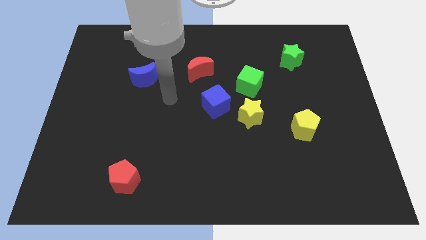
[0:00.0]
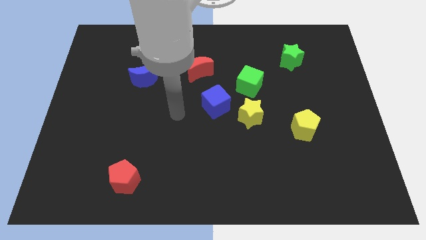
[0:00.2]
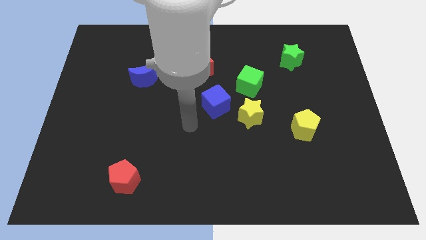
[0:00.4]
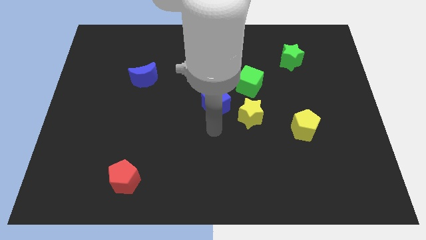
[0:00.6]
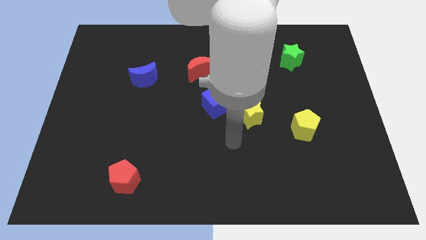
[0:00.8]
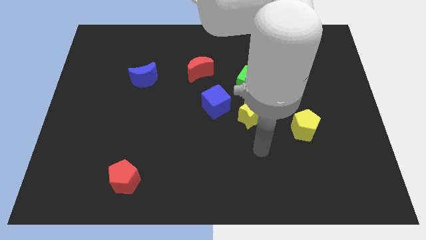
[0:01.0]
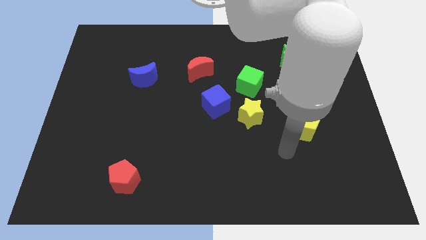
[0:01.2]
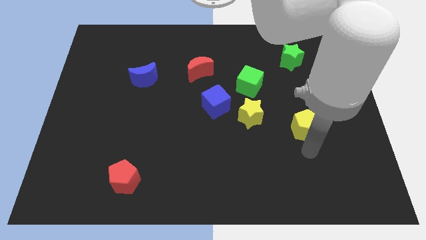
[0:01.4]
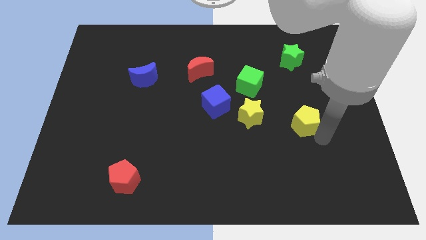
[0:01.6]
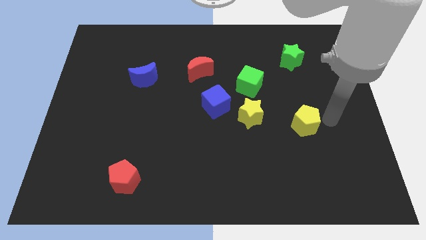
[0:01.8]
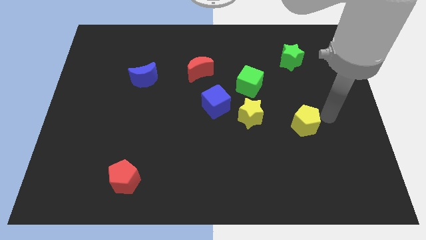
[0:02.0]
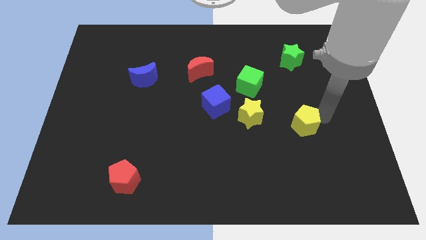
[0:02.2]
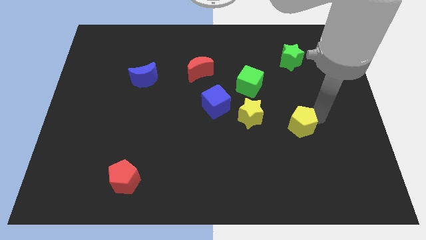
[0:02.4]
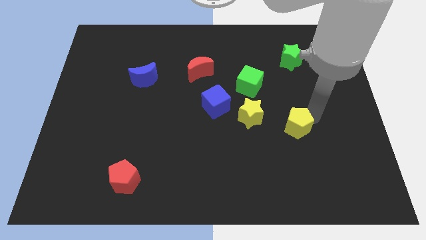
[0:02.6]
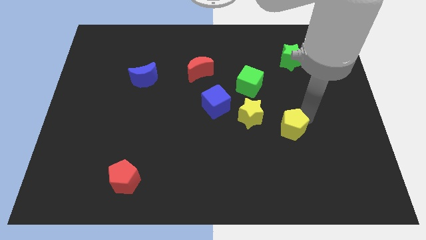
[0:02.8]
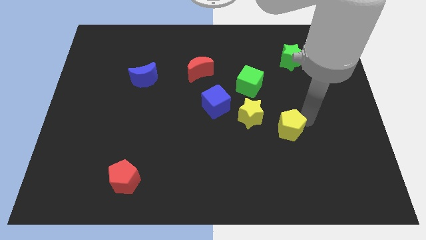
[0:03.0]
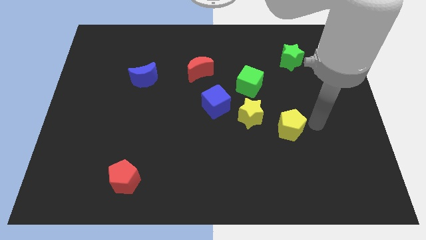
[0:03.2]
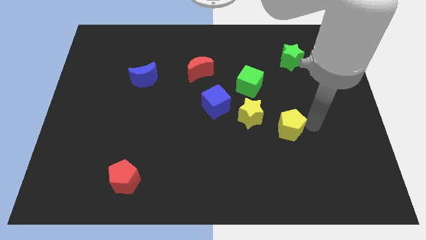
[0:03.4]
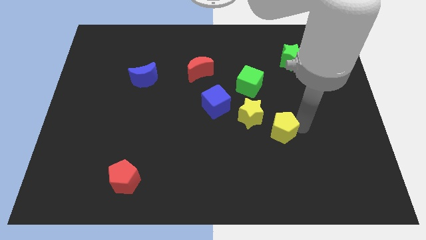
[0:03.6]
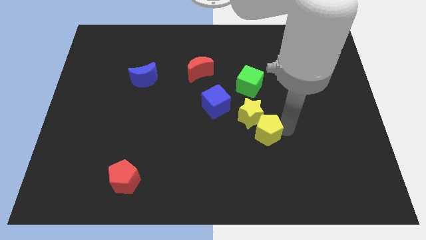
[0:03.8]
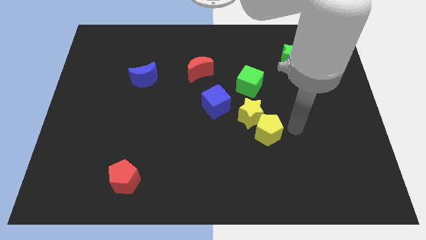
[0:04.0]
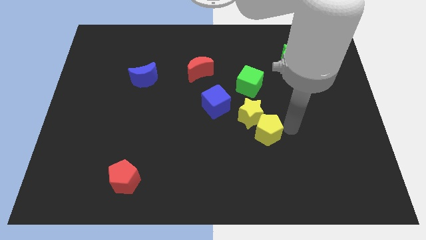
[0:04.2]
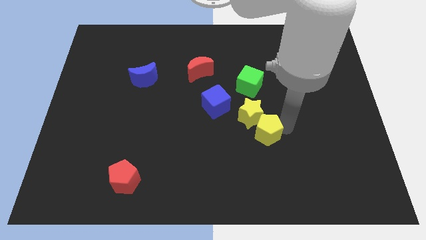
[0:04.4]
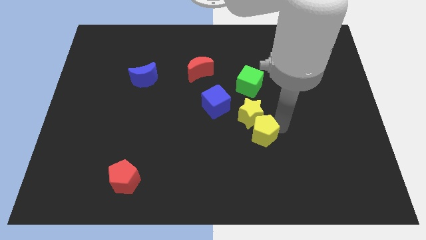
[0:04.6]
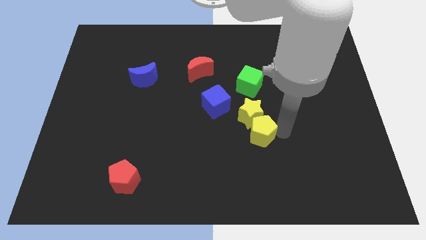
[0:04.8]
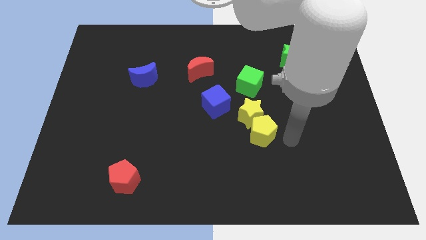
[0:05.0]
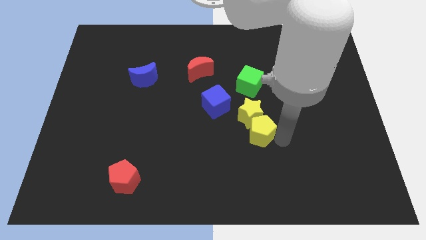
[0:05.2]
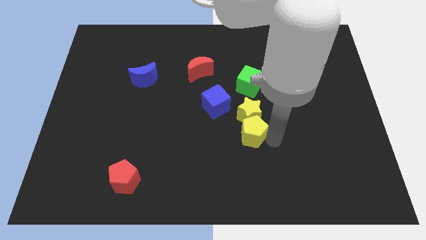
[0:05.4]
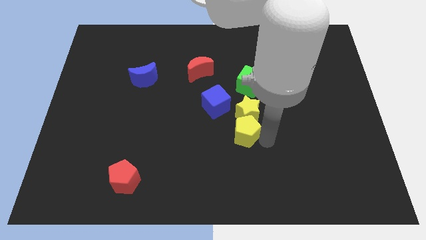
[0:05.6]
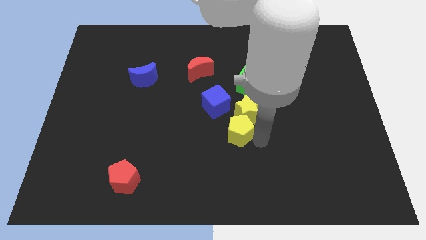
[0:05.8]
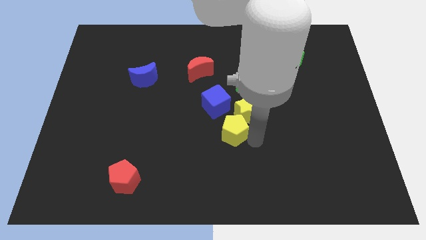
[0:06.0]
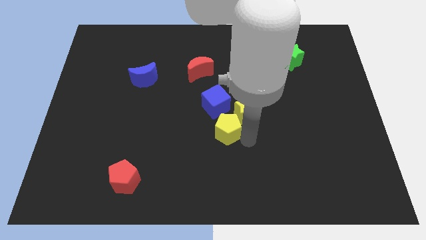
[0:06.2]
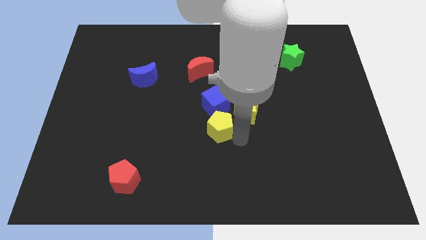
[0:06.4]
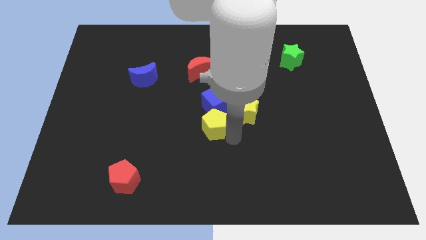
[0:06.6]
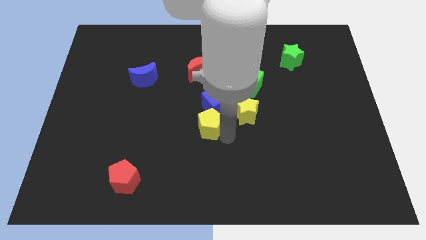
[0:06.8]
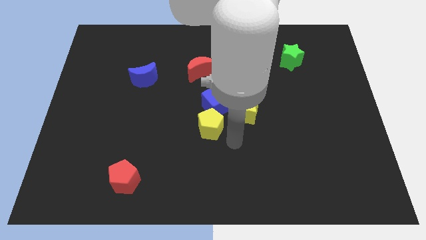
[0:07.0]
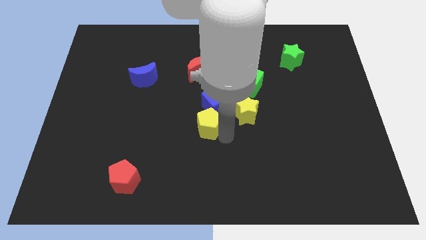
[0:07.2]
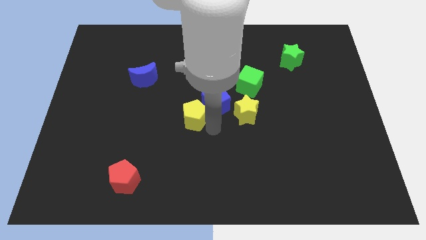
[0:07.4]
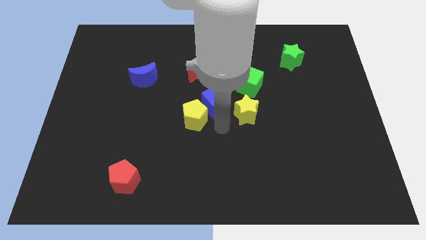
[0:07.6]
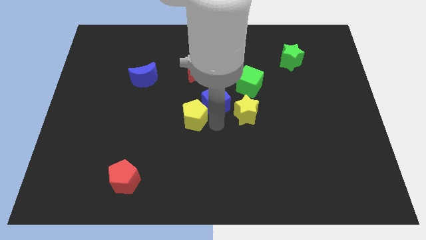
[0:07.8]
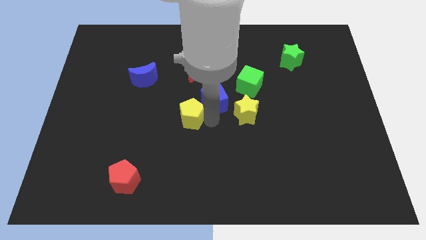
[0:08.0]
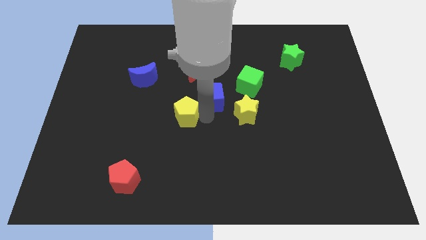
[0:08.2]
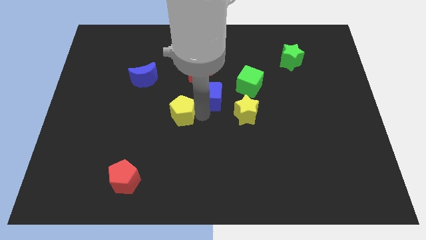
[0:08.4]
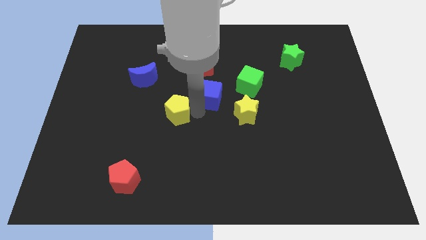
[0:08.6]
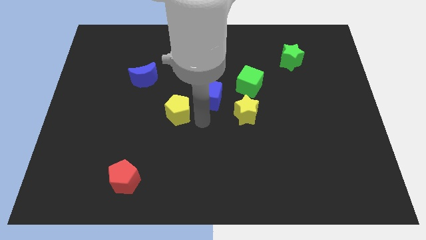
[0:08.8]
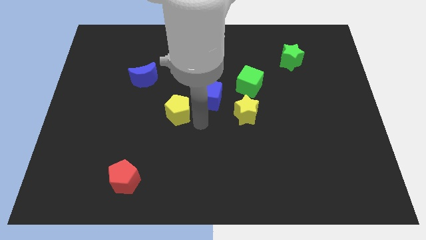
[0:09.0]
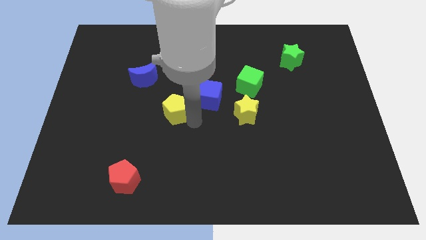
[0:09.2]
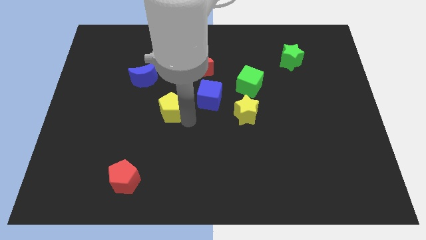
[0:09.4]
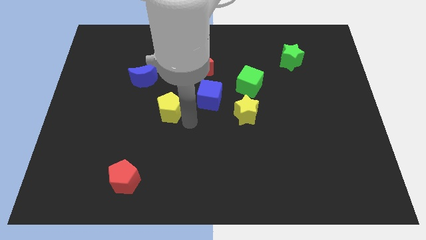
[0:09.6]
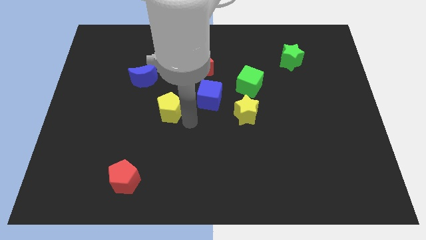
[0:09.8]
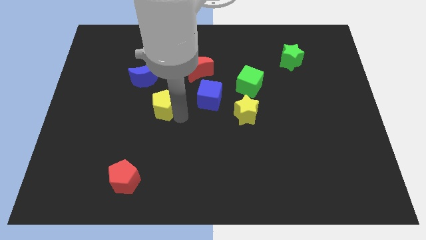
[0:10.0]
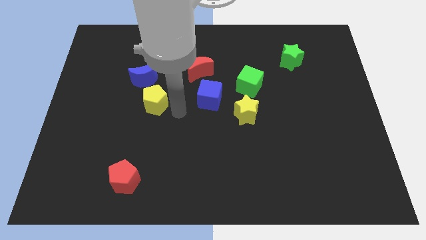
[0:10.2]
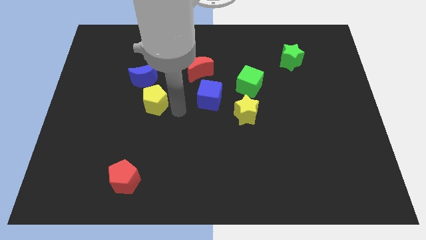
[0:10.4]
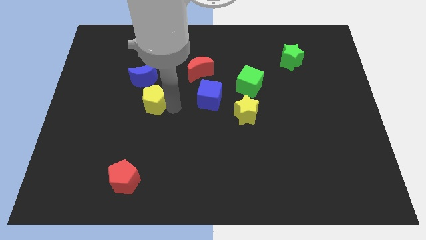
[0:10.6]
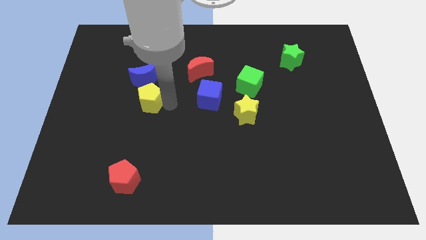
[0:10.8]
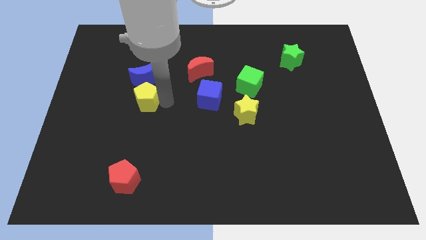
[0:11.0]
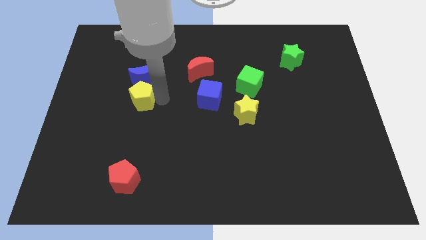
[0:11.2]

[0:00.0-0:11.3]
move the yellow pentagon to the bottom left of the blue moon

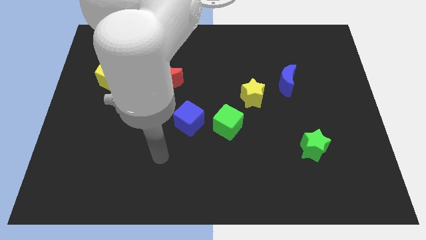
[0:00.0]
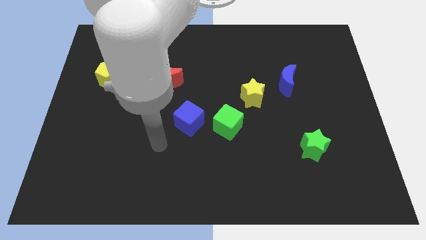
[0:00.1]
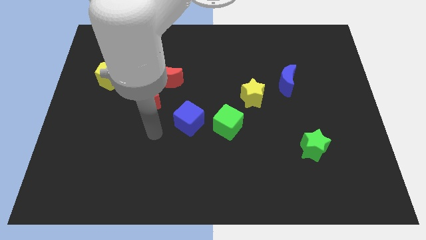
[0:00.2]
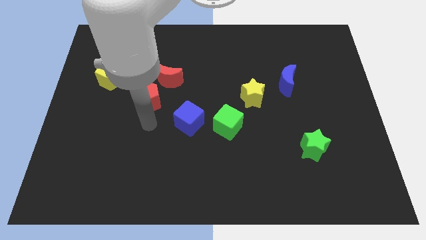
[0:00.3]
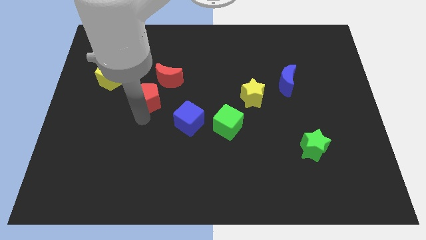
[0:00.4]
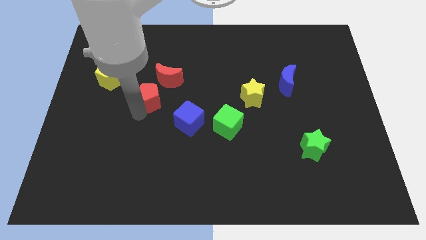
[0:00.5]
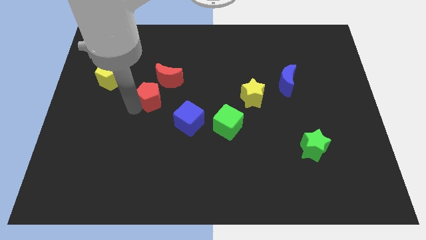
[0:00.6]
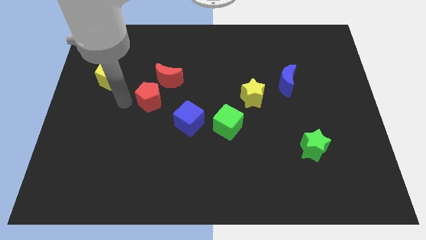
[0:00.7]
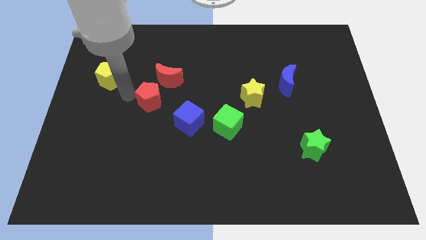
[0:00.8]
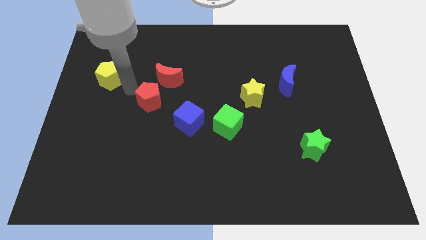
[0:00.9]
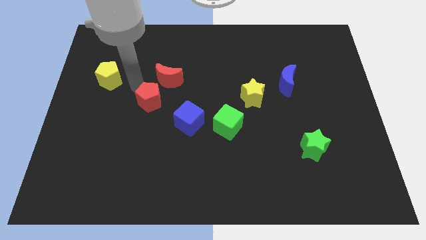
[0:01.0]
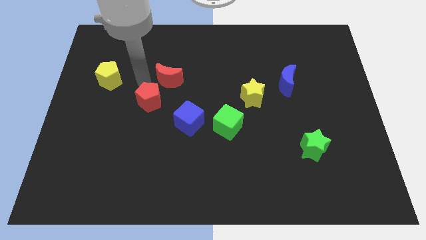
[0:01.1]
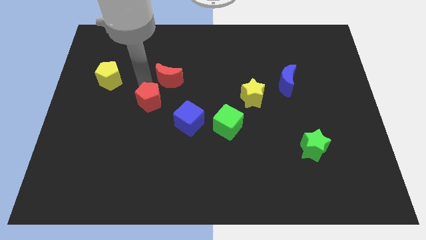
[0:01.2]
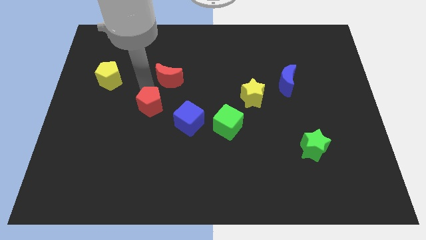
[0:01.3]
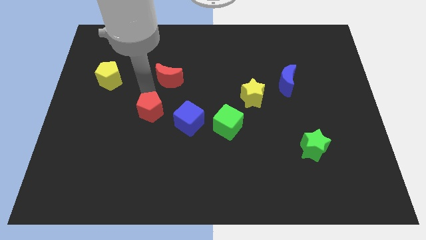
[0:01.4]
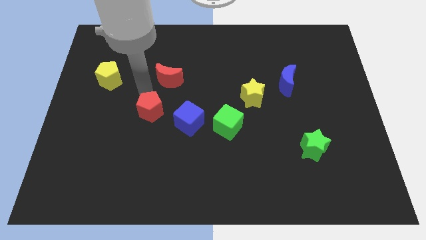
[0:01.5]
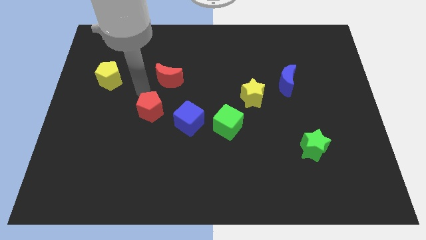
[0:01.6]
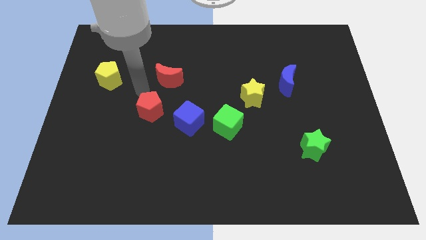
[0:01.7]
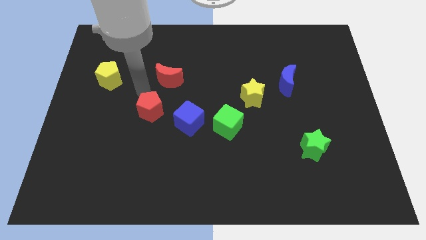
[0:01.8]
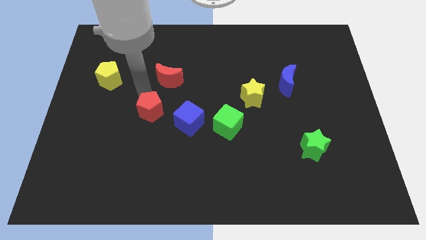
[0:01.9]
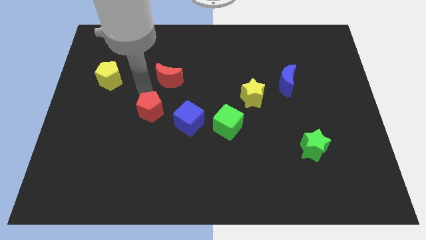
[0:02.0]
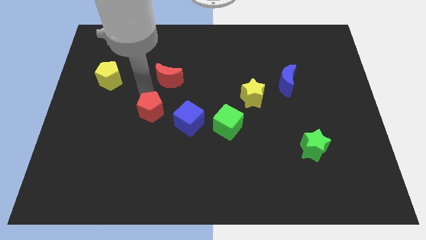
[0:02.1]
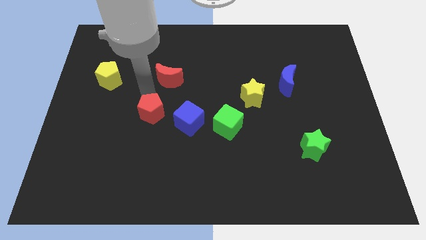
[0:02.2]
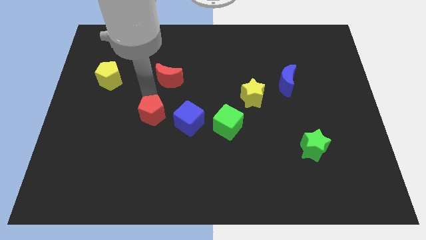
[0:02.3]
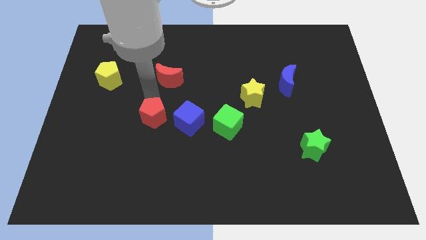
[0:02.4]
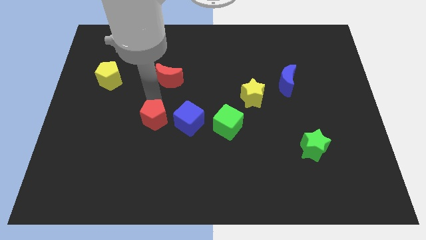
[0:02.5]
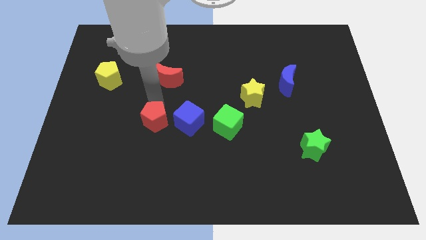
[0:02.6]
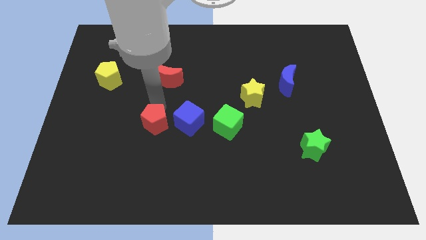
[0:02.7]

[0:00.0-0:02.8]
put the red pentagon to the bottom left of the blue cube
